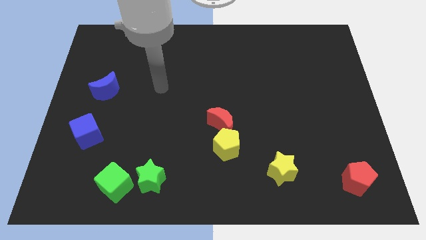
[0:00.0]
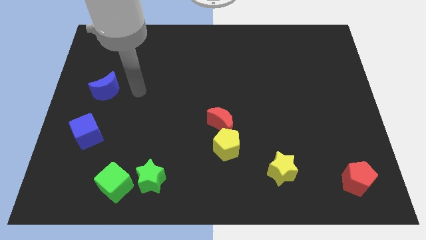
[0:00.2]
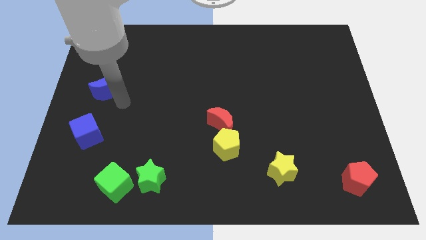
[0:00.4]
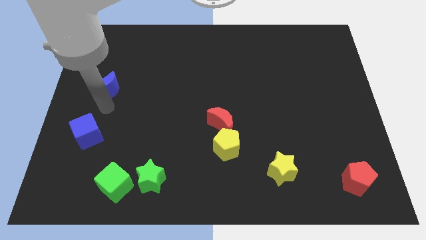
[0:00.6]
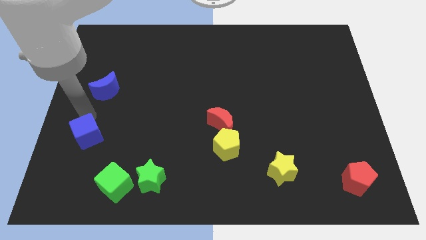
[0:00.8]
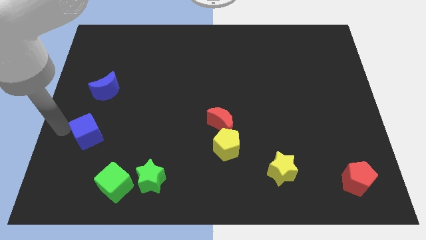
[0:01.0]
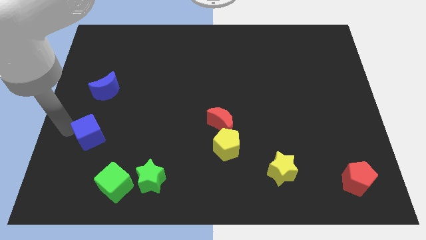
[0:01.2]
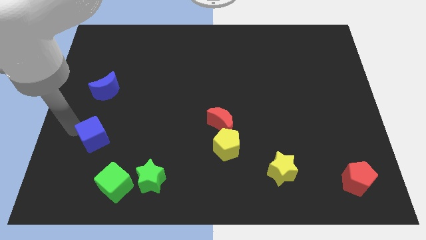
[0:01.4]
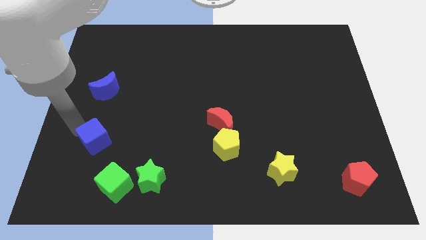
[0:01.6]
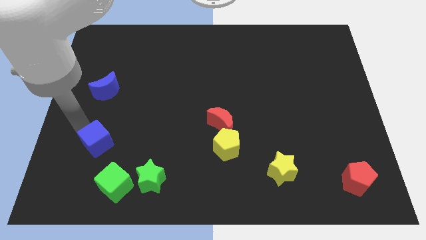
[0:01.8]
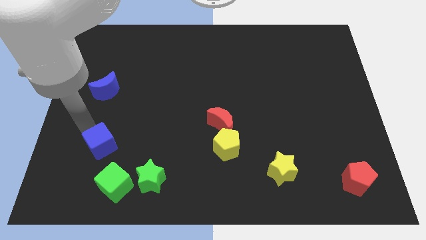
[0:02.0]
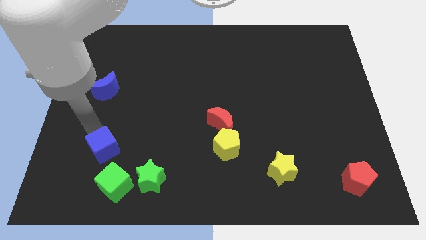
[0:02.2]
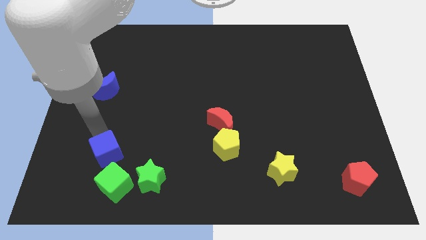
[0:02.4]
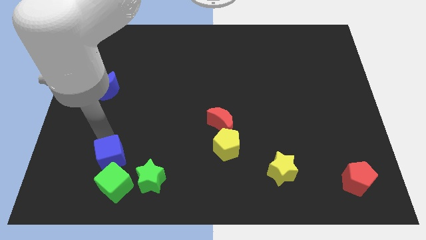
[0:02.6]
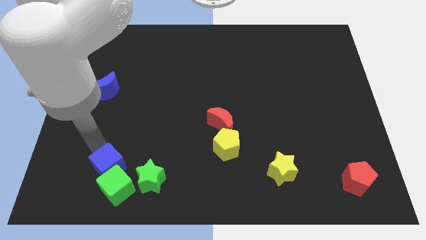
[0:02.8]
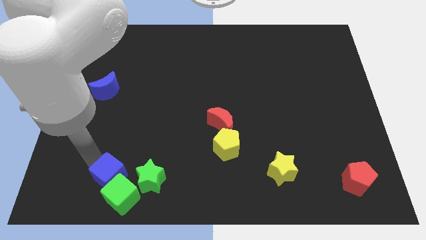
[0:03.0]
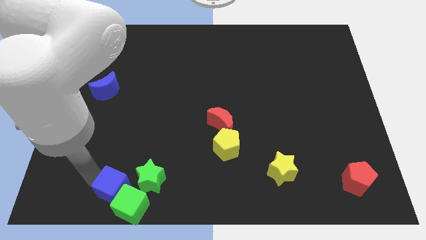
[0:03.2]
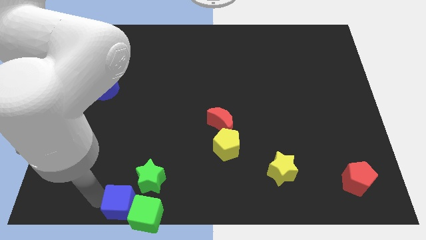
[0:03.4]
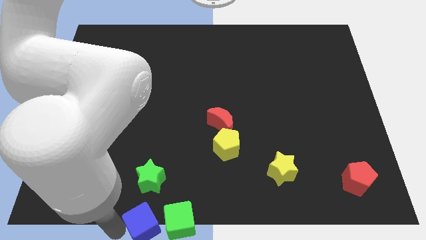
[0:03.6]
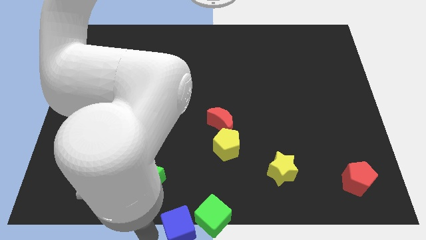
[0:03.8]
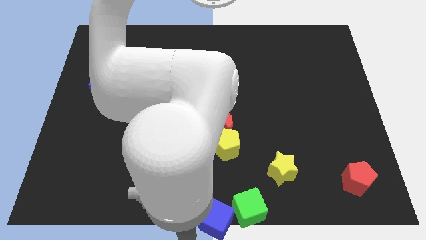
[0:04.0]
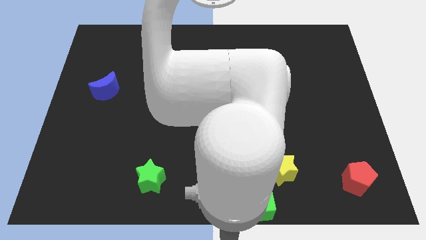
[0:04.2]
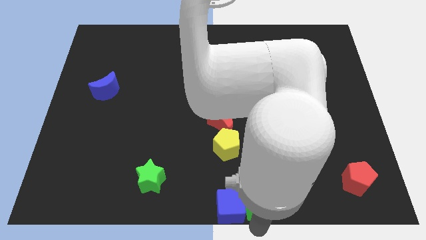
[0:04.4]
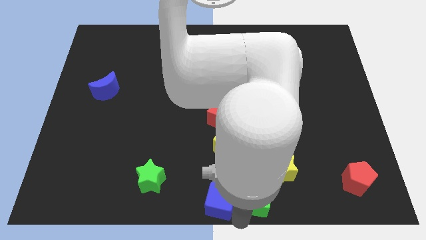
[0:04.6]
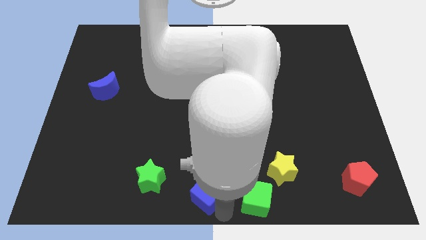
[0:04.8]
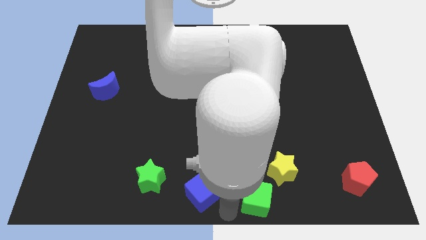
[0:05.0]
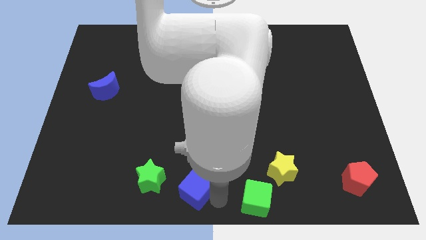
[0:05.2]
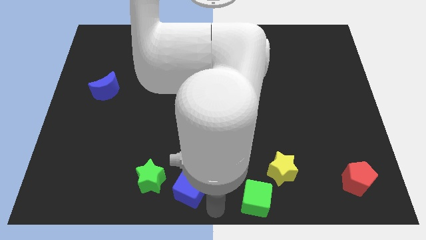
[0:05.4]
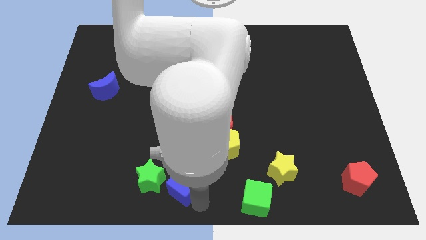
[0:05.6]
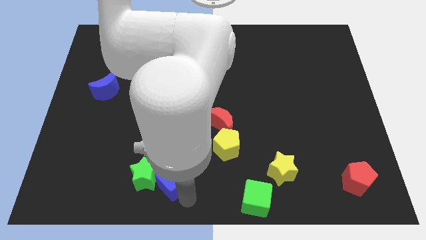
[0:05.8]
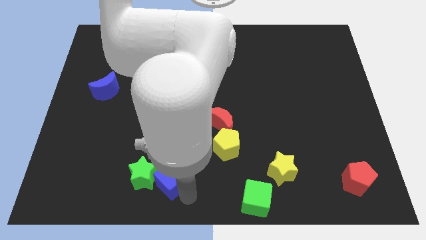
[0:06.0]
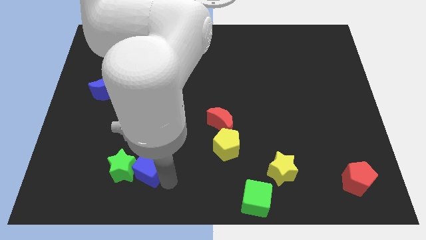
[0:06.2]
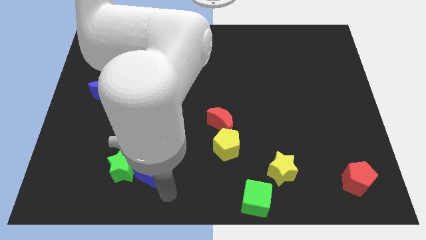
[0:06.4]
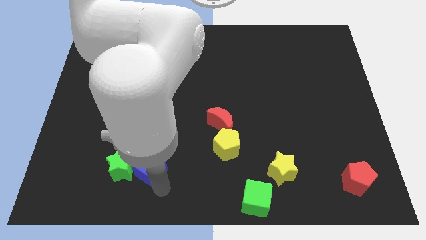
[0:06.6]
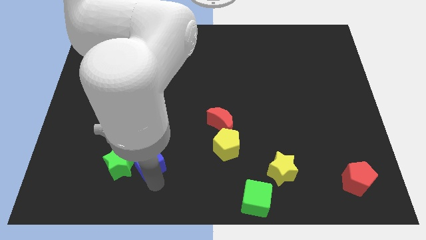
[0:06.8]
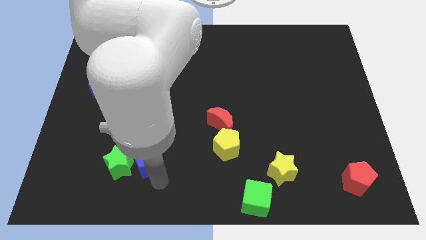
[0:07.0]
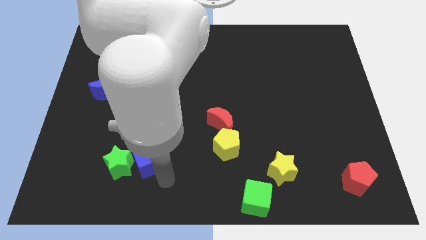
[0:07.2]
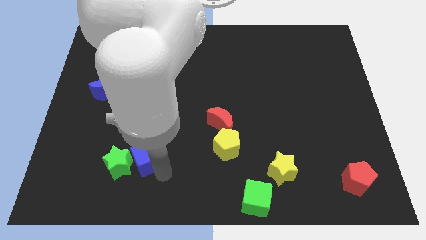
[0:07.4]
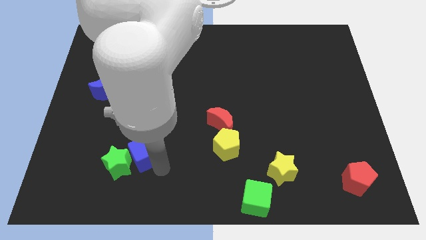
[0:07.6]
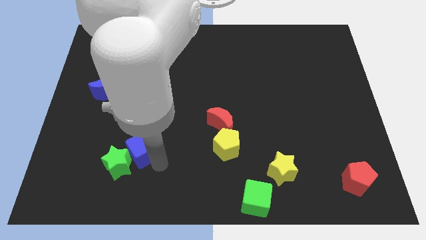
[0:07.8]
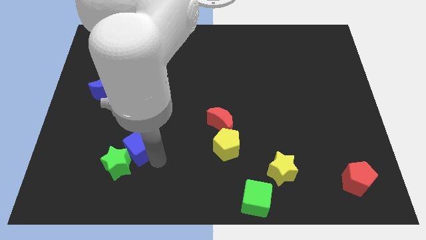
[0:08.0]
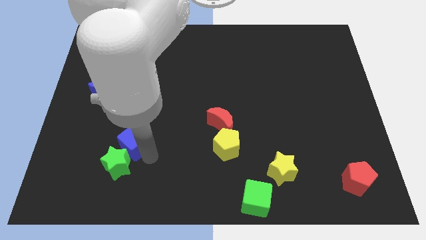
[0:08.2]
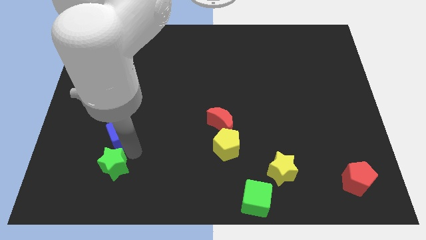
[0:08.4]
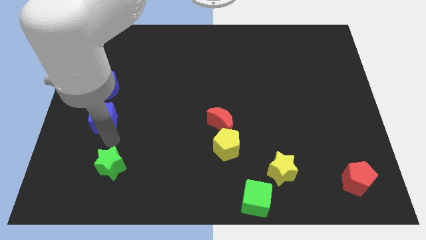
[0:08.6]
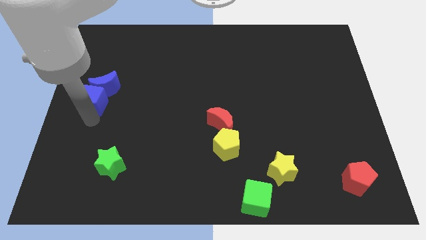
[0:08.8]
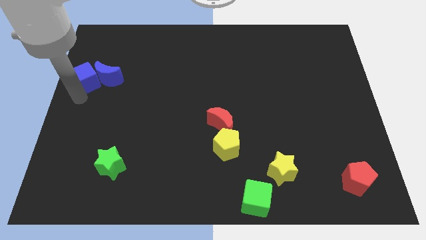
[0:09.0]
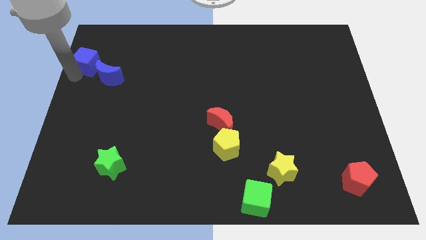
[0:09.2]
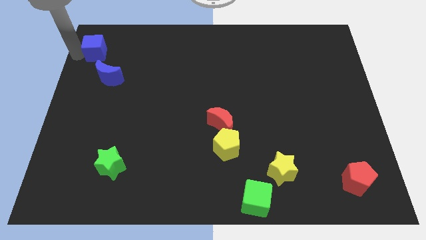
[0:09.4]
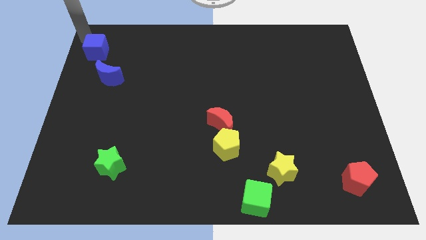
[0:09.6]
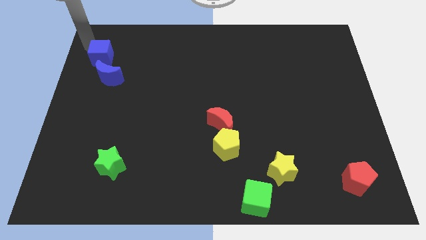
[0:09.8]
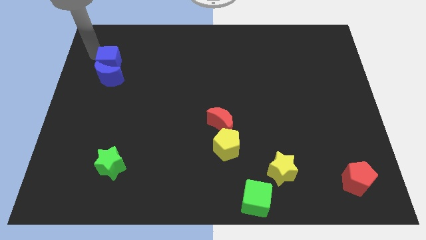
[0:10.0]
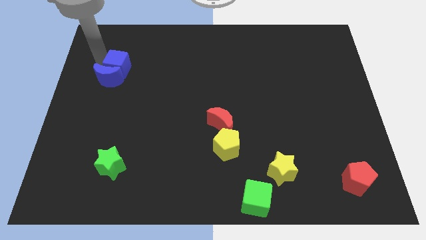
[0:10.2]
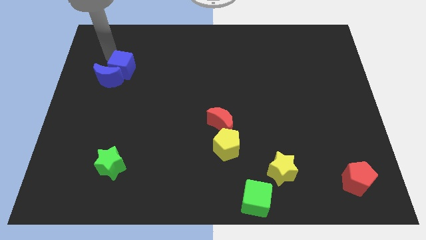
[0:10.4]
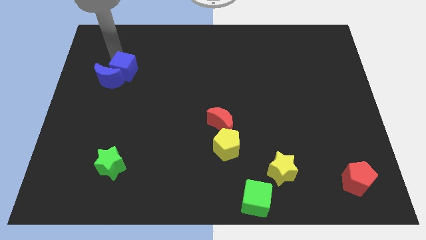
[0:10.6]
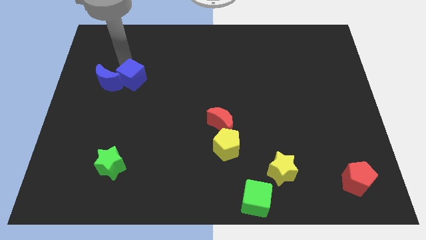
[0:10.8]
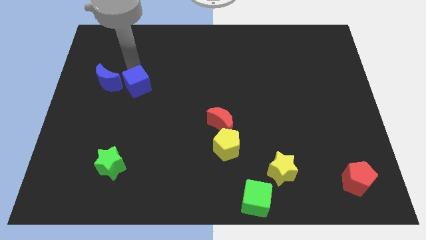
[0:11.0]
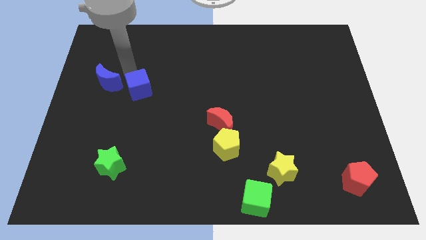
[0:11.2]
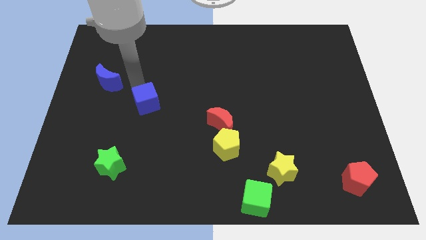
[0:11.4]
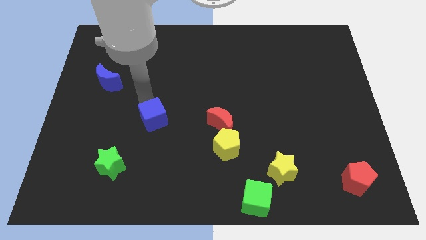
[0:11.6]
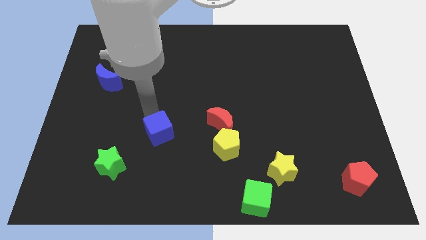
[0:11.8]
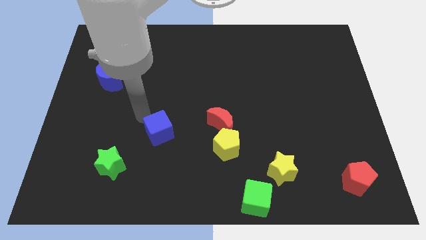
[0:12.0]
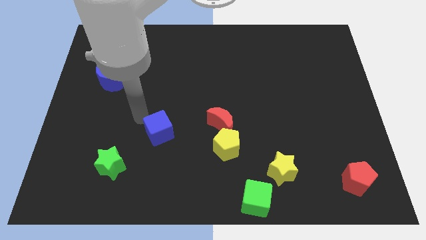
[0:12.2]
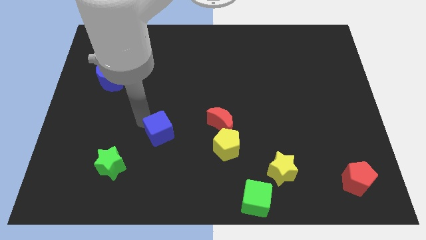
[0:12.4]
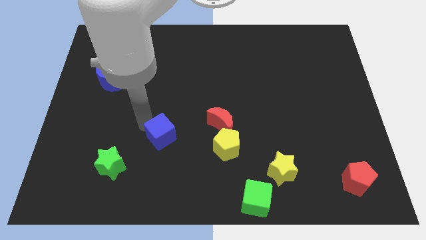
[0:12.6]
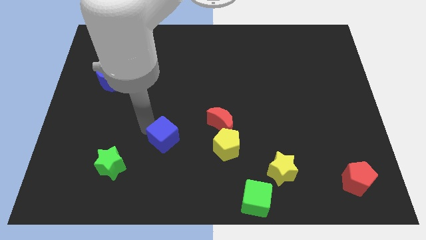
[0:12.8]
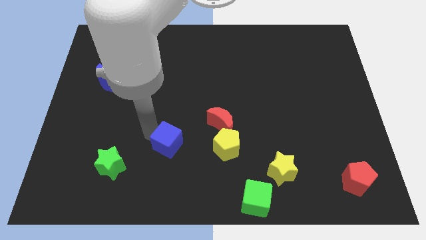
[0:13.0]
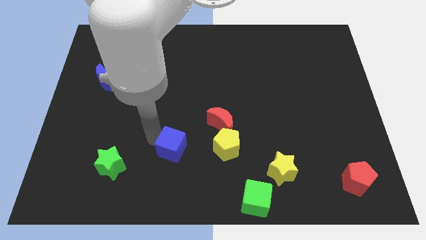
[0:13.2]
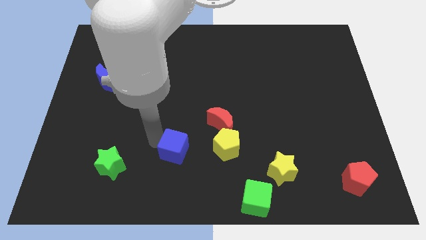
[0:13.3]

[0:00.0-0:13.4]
push the blue cube diagonally down and to the left of the red moon
